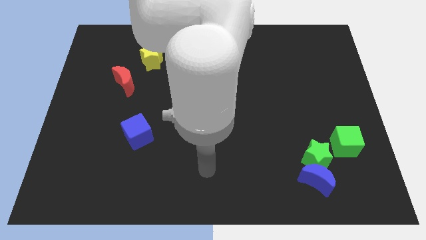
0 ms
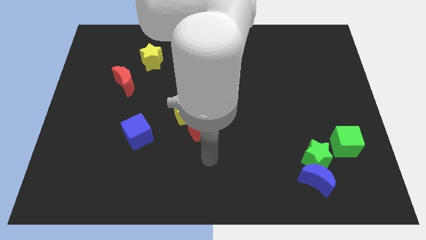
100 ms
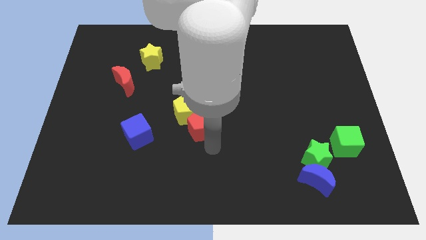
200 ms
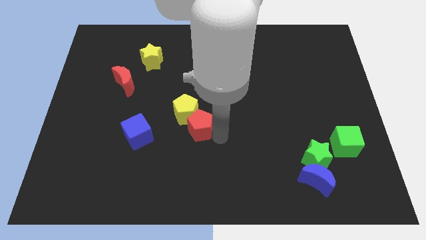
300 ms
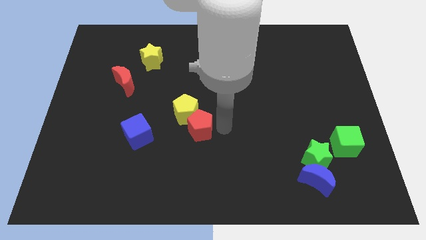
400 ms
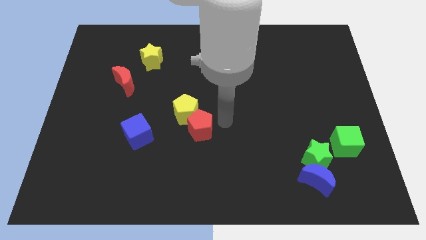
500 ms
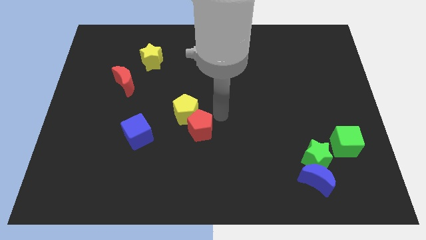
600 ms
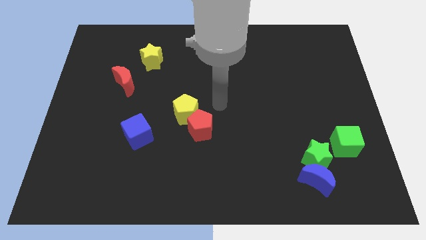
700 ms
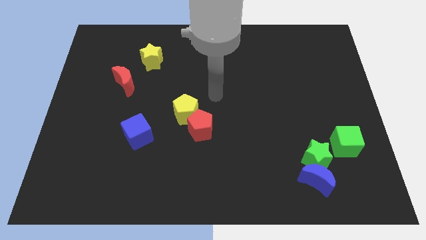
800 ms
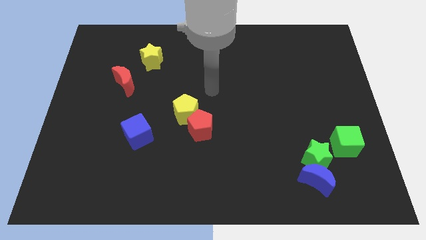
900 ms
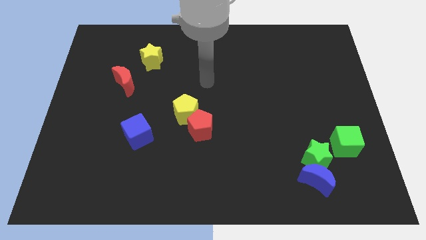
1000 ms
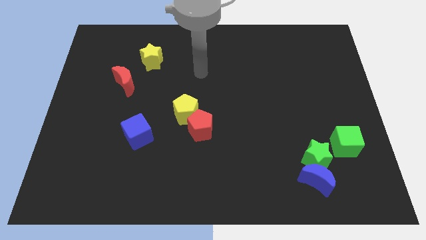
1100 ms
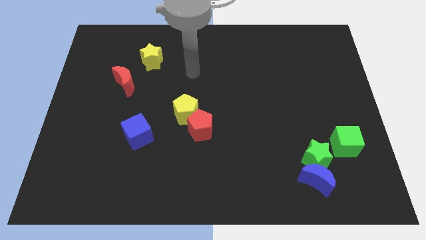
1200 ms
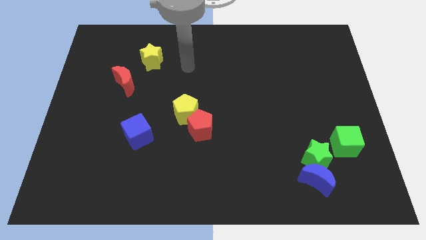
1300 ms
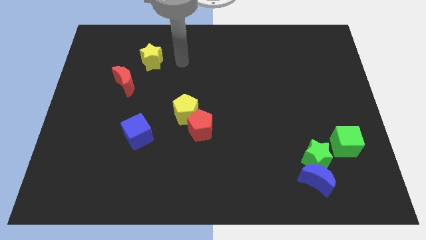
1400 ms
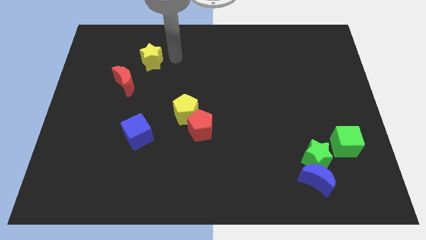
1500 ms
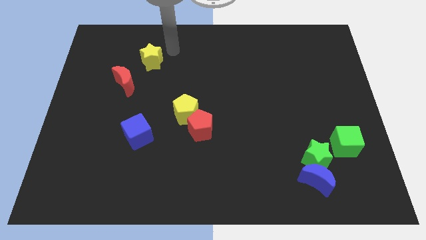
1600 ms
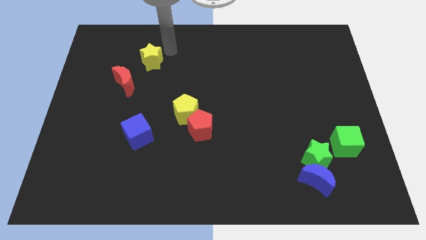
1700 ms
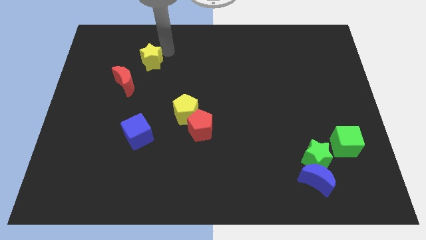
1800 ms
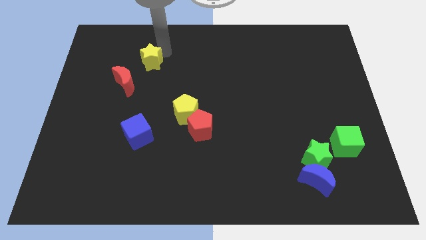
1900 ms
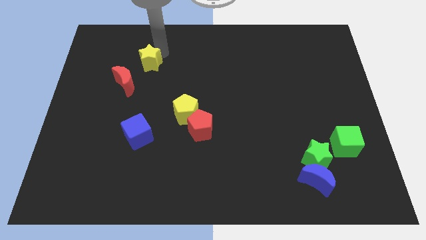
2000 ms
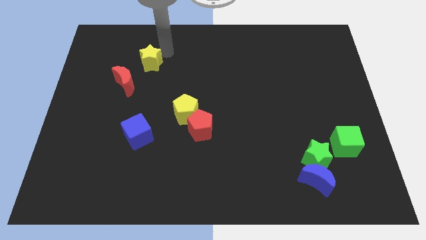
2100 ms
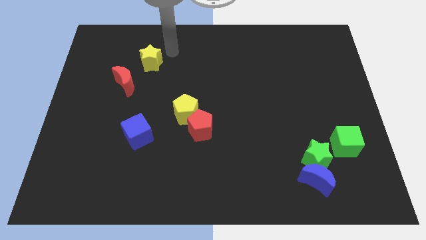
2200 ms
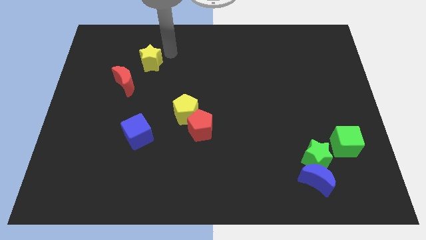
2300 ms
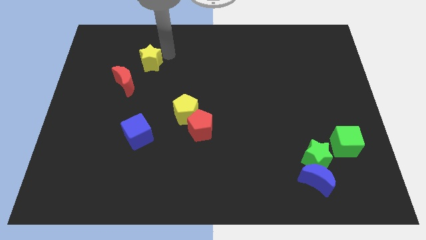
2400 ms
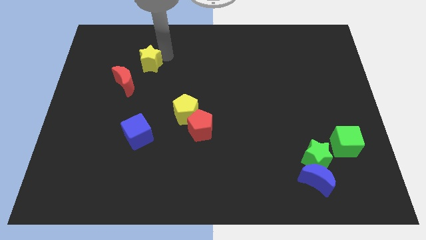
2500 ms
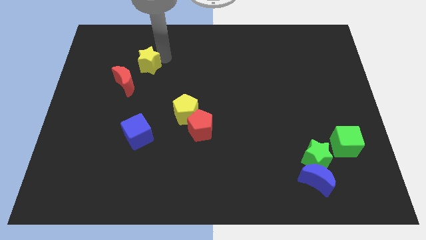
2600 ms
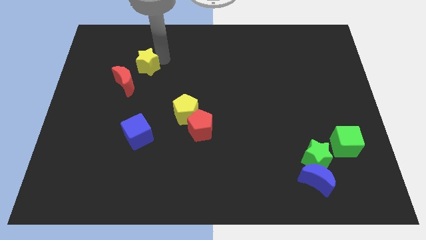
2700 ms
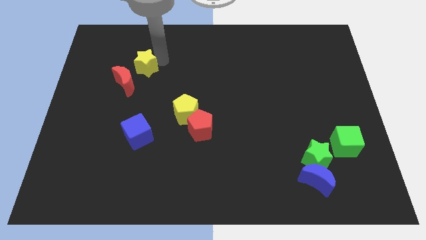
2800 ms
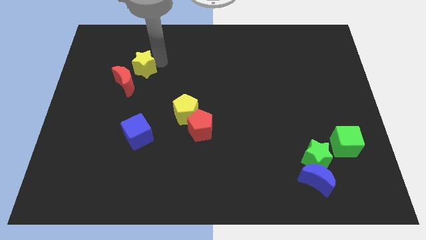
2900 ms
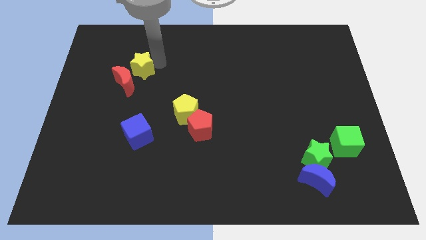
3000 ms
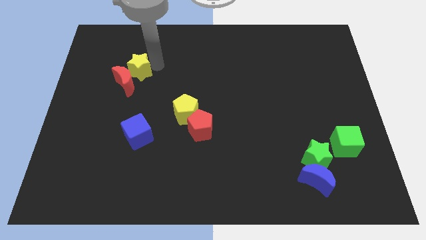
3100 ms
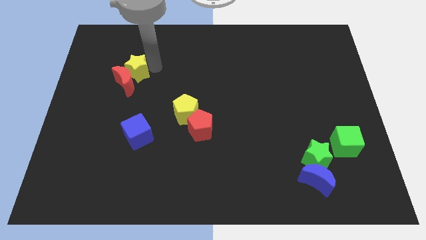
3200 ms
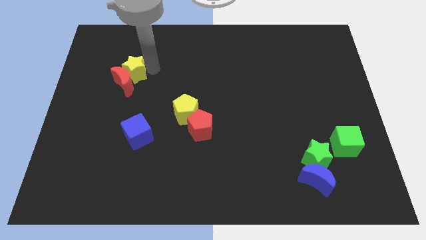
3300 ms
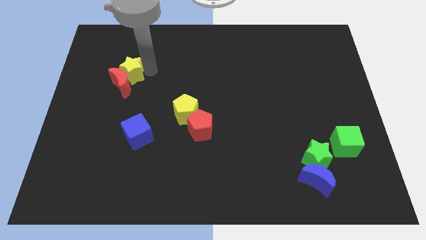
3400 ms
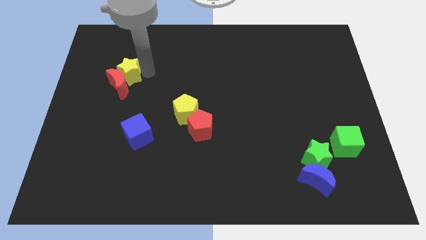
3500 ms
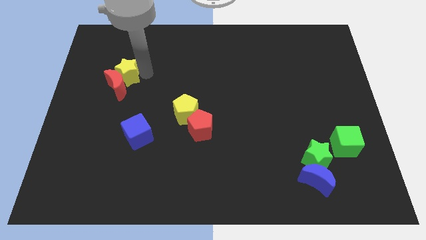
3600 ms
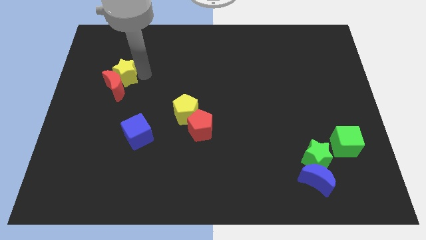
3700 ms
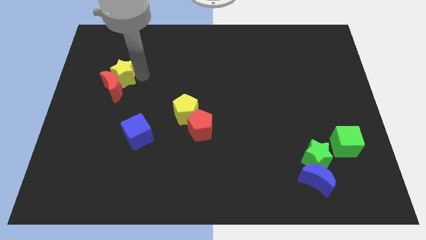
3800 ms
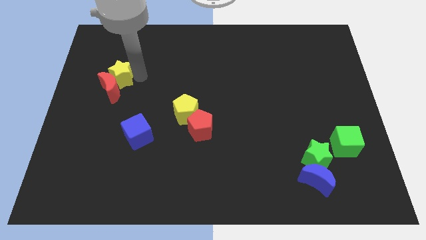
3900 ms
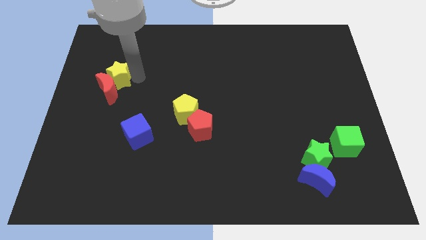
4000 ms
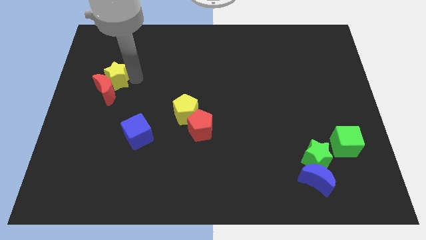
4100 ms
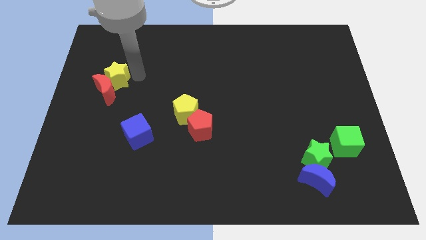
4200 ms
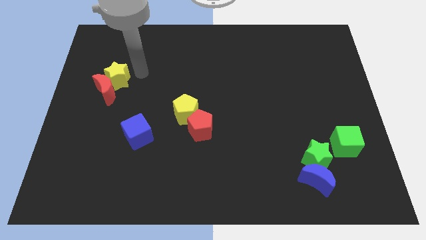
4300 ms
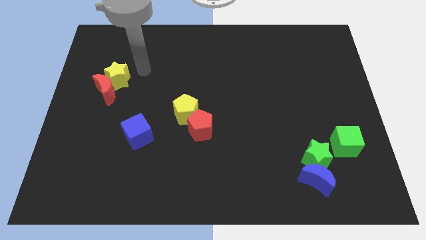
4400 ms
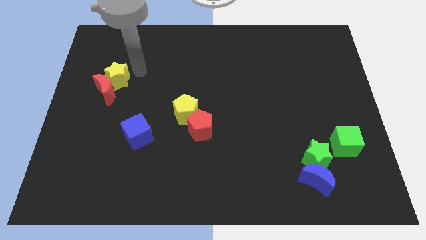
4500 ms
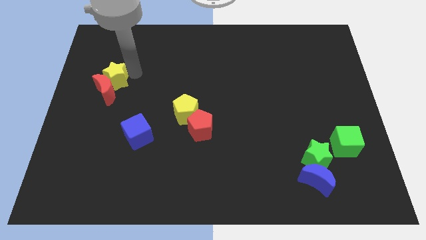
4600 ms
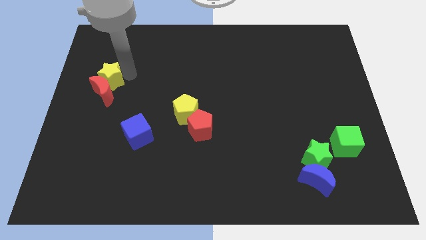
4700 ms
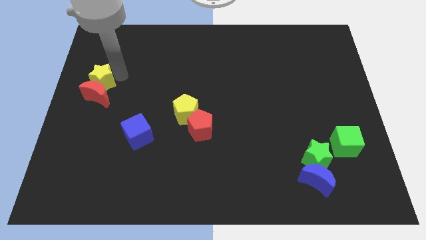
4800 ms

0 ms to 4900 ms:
slide the yellow star to the left side of the board

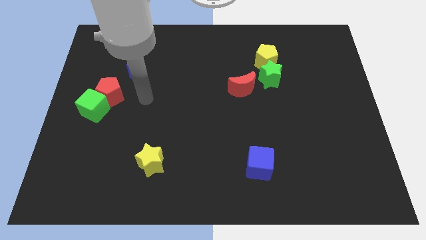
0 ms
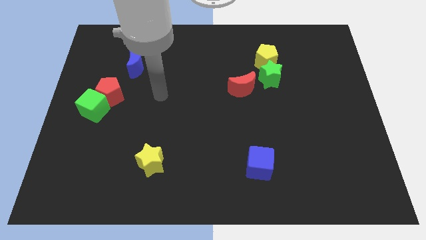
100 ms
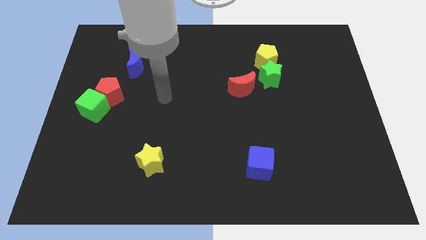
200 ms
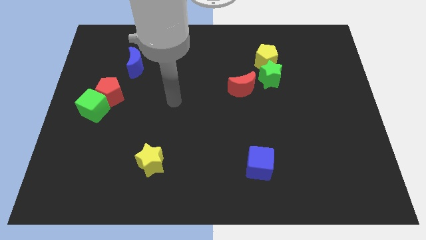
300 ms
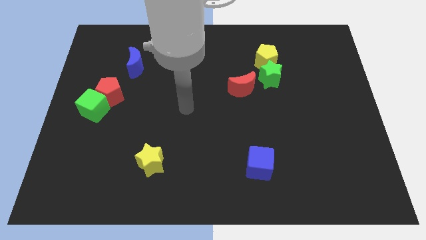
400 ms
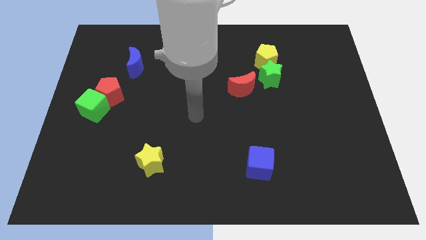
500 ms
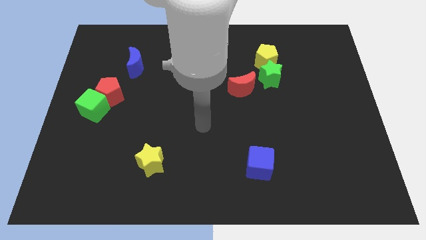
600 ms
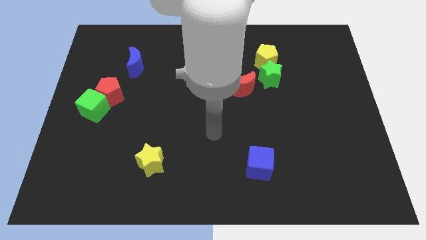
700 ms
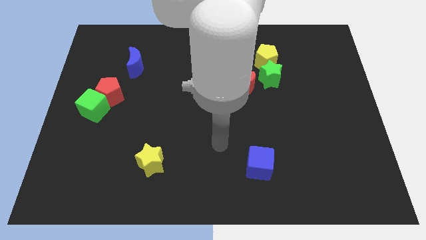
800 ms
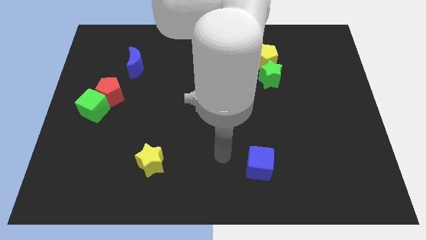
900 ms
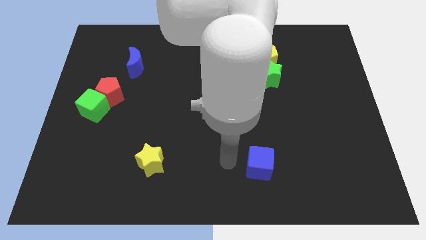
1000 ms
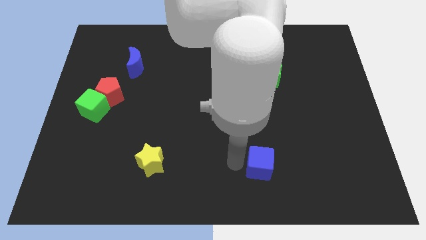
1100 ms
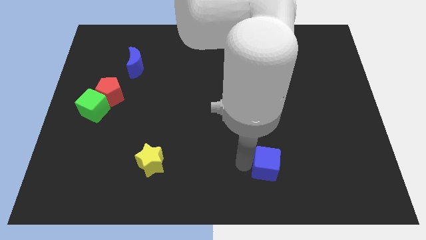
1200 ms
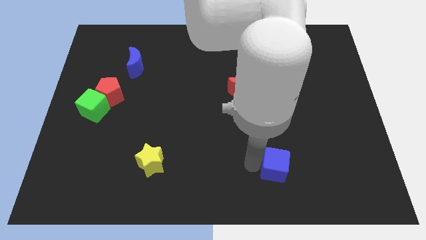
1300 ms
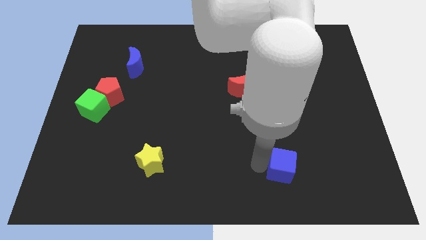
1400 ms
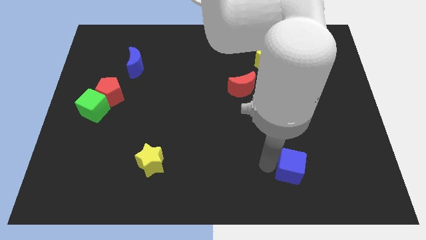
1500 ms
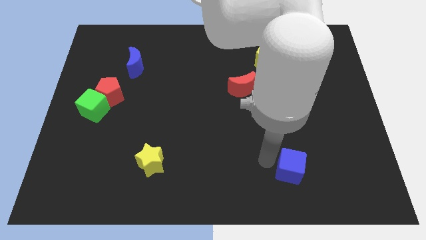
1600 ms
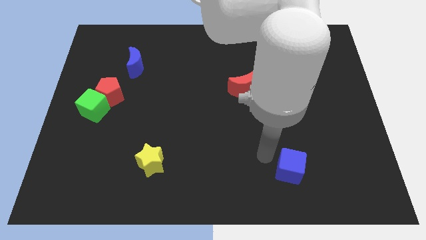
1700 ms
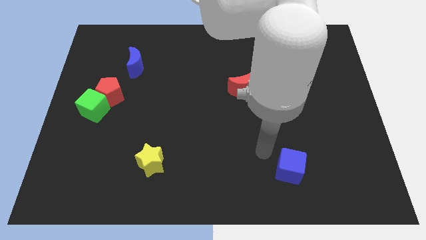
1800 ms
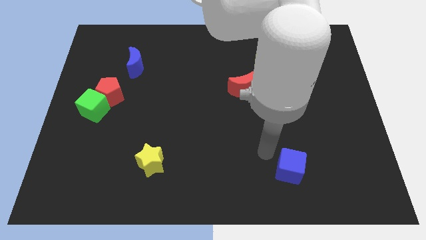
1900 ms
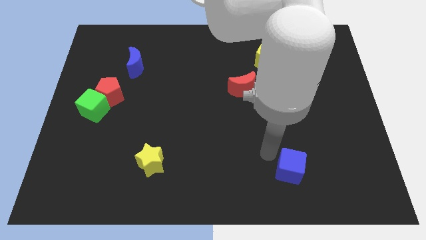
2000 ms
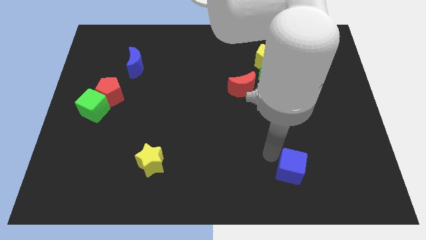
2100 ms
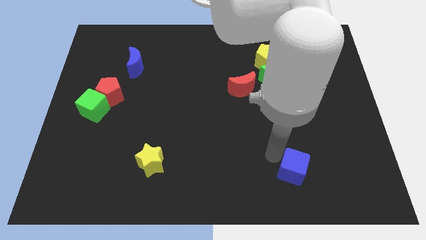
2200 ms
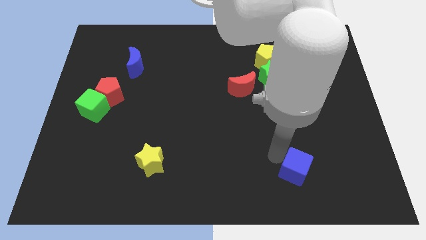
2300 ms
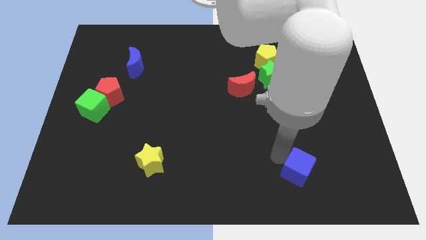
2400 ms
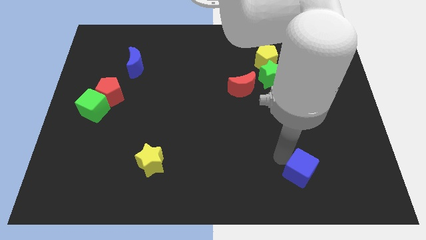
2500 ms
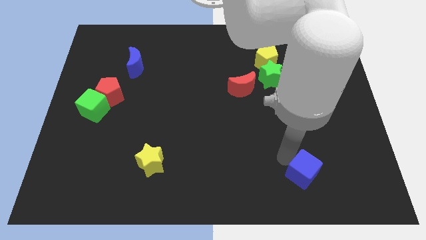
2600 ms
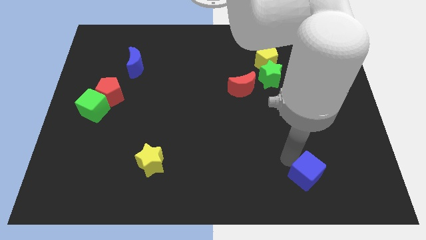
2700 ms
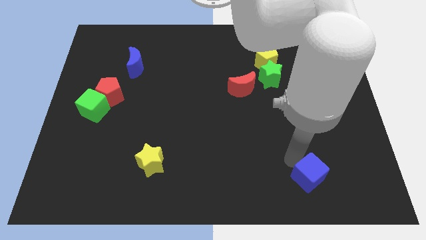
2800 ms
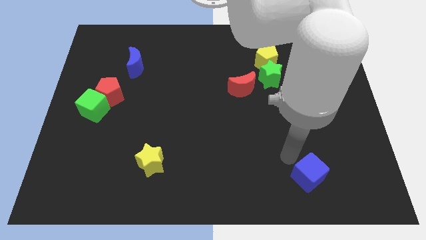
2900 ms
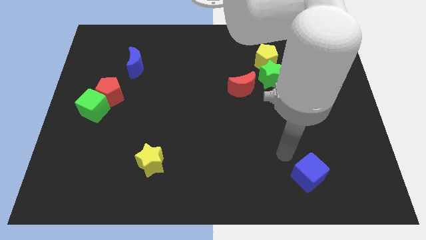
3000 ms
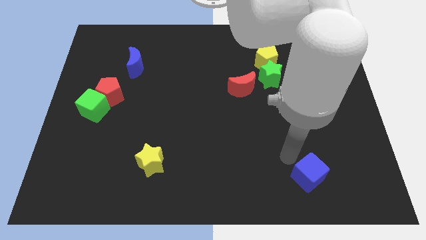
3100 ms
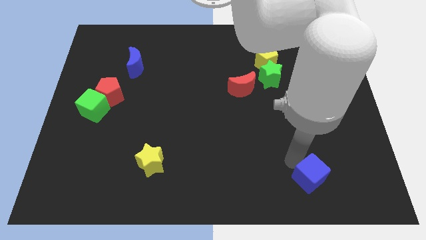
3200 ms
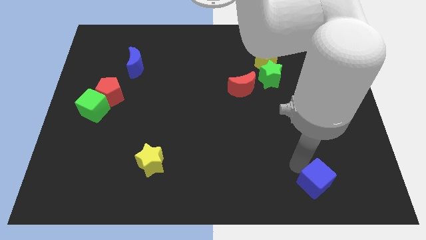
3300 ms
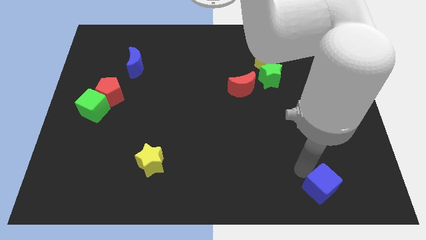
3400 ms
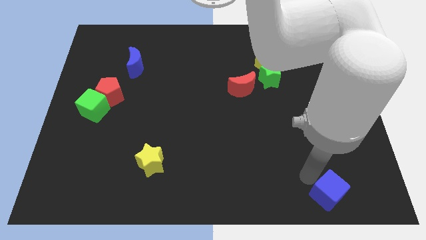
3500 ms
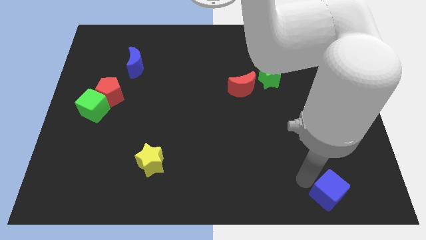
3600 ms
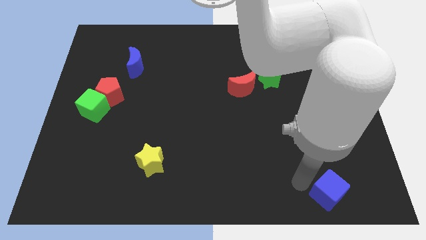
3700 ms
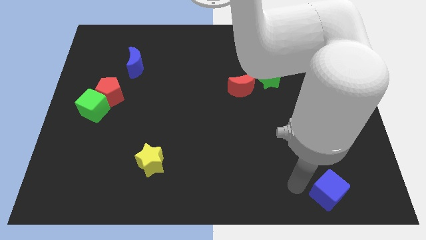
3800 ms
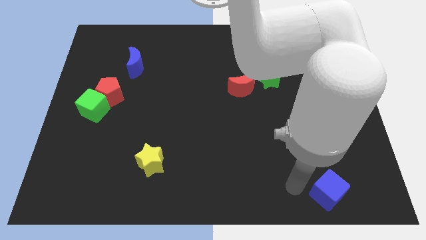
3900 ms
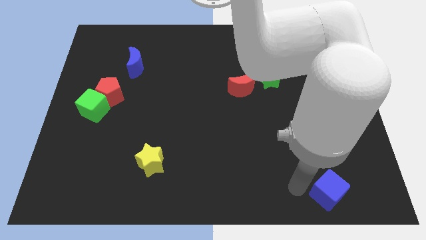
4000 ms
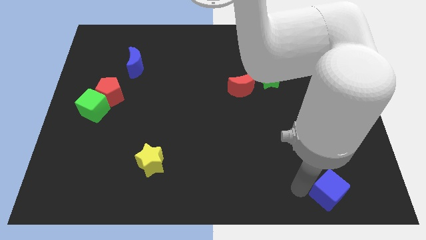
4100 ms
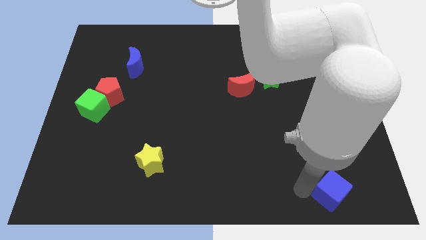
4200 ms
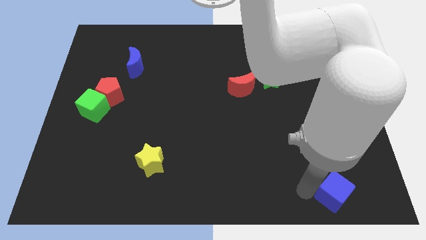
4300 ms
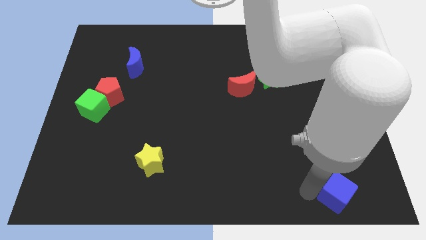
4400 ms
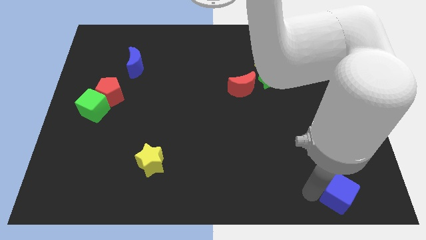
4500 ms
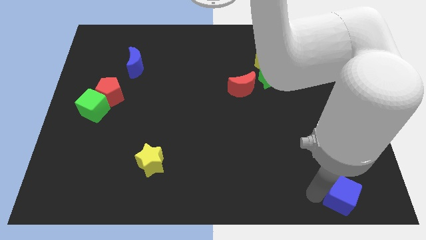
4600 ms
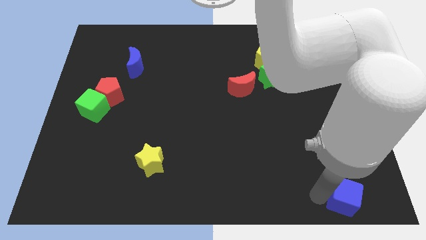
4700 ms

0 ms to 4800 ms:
put the blue cube to the lower right corner
